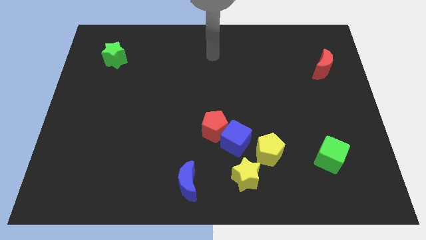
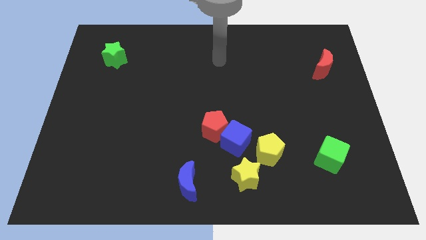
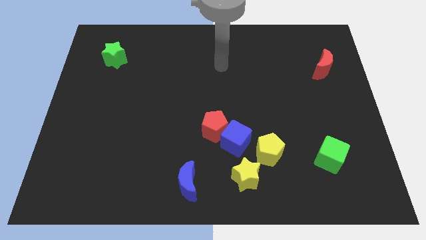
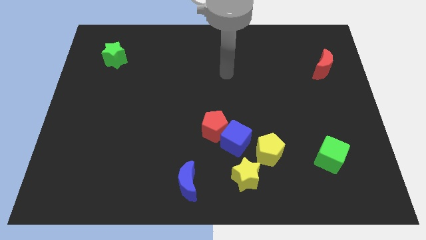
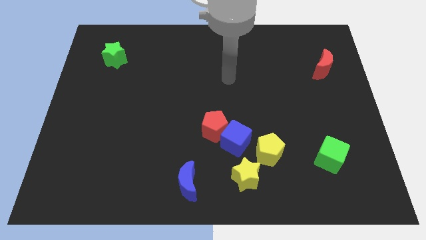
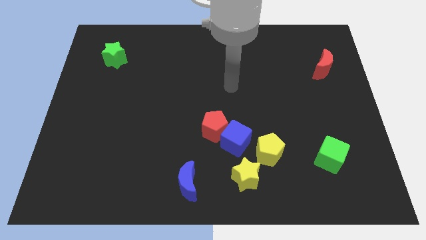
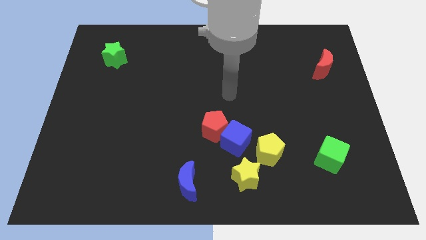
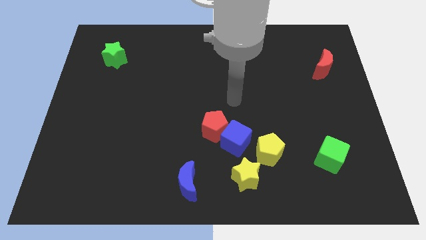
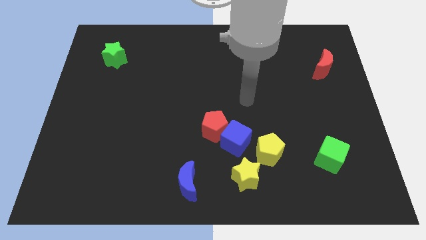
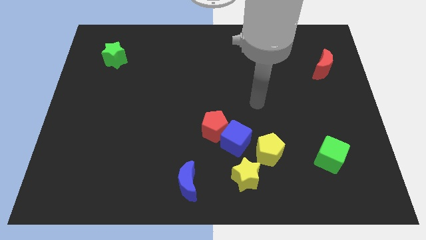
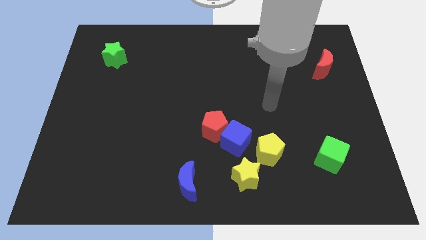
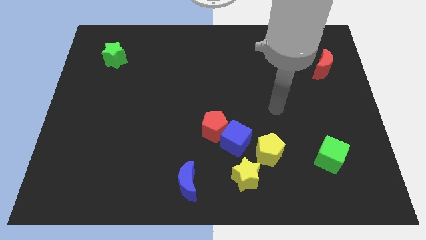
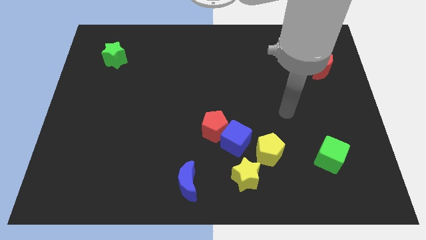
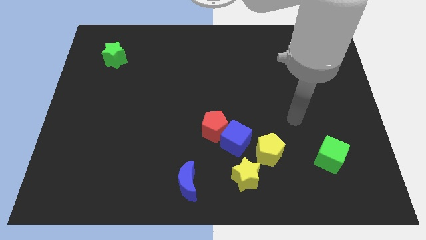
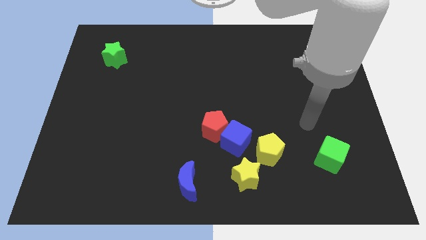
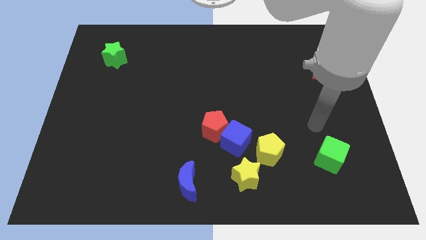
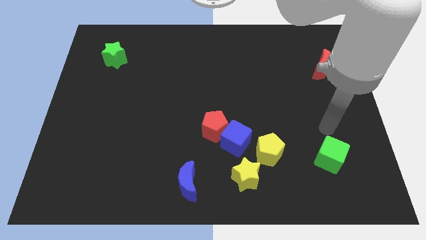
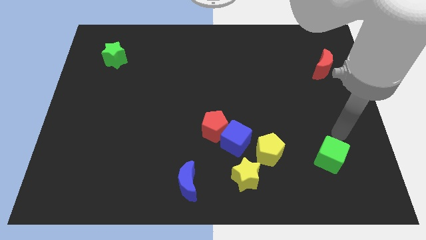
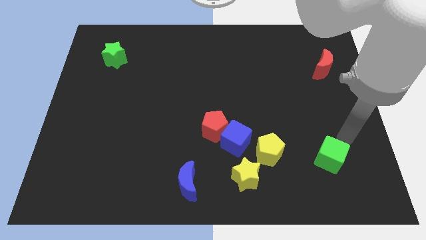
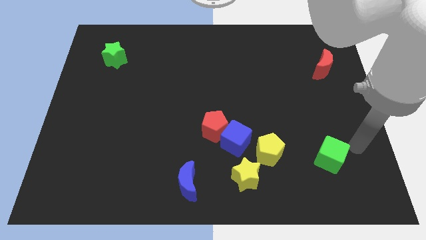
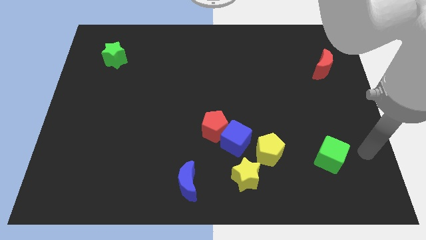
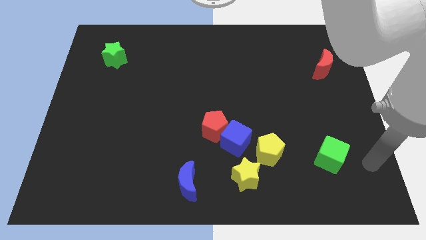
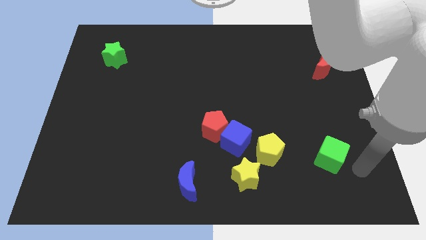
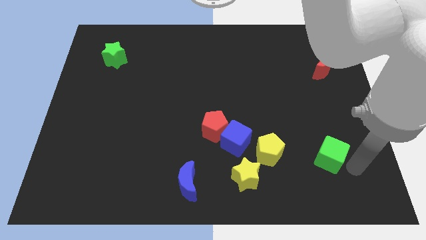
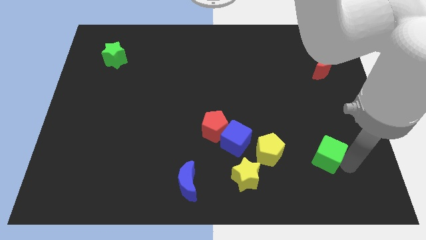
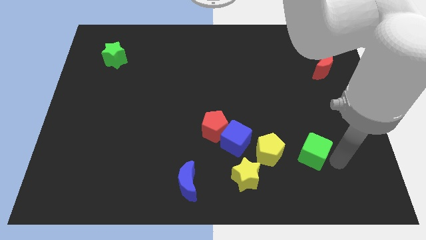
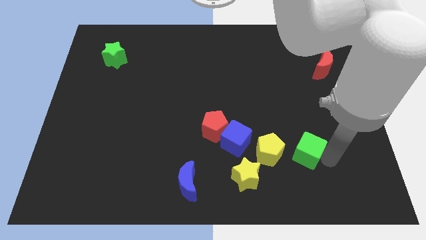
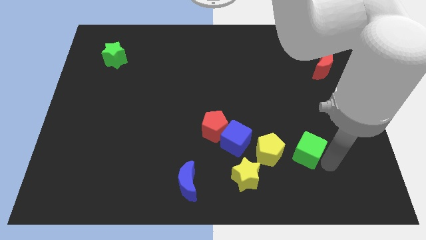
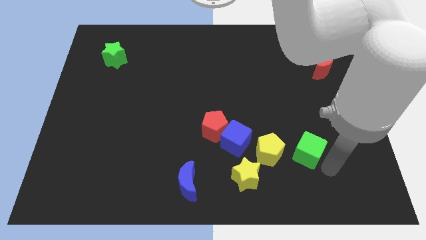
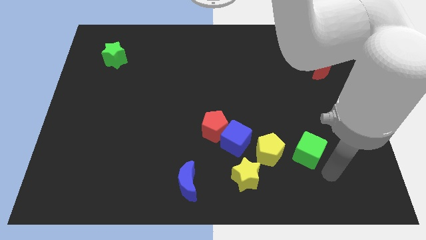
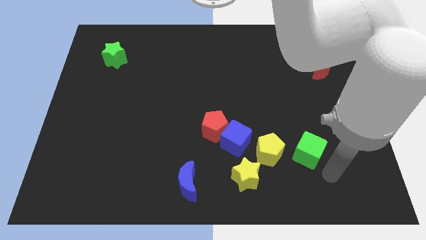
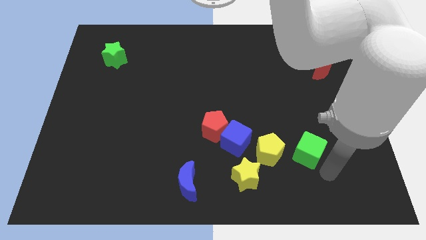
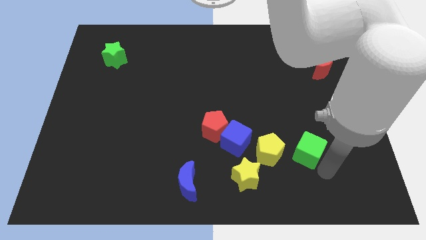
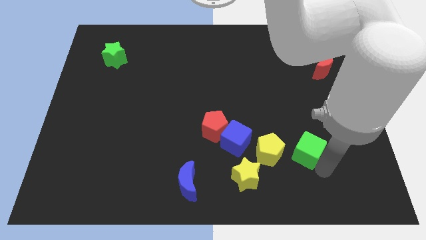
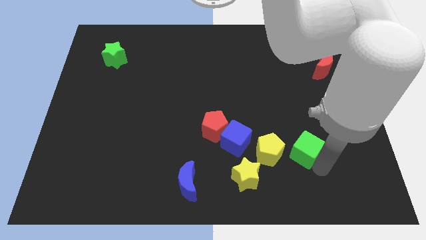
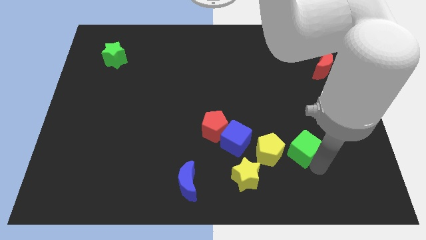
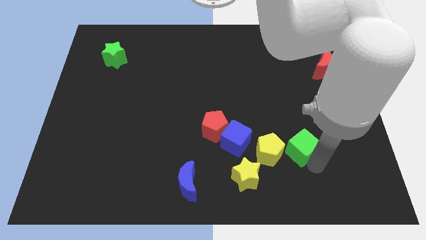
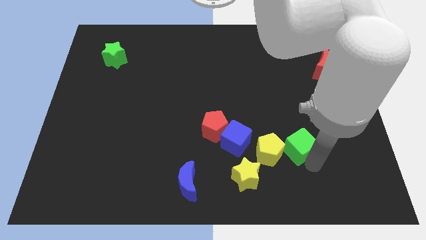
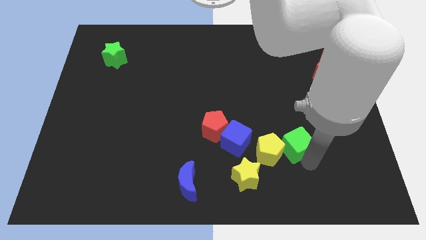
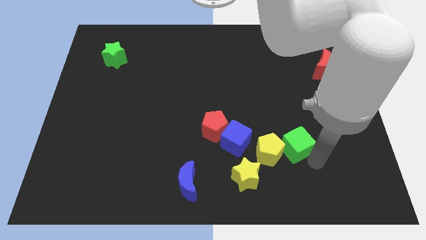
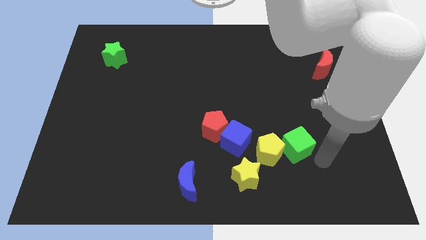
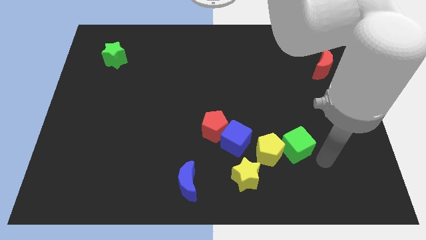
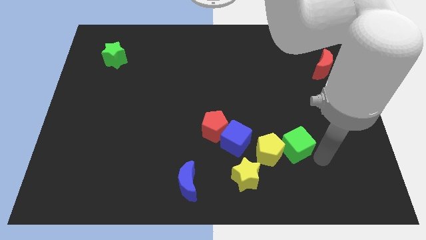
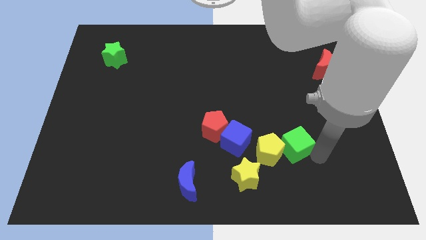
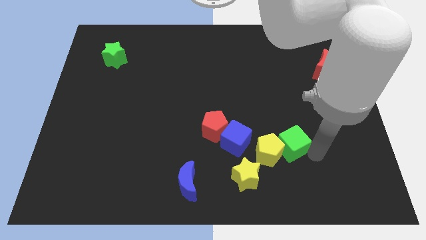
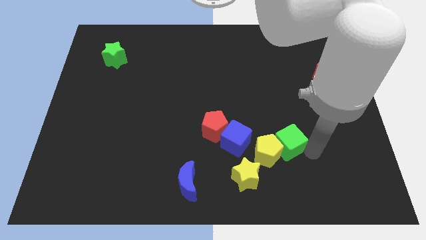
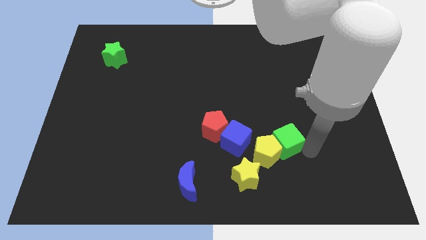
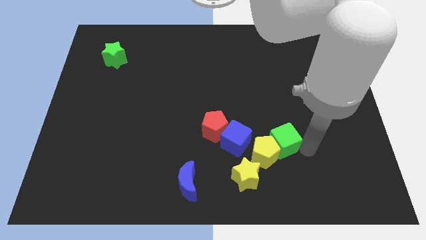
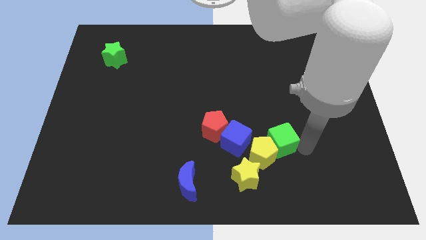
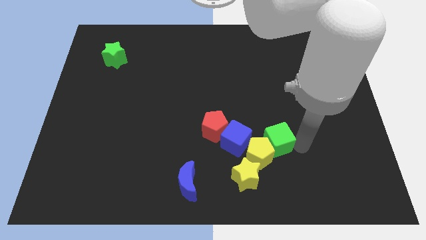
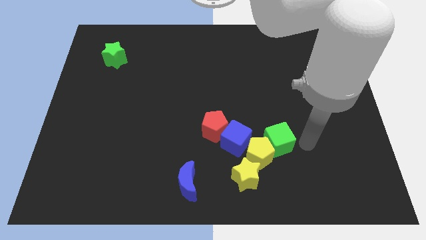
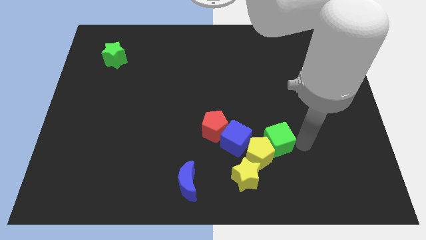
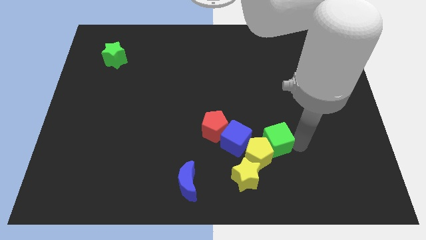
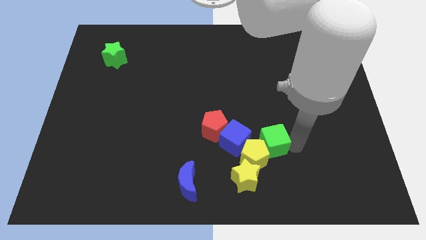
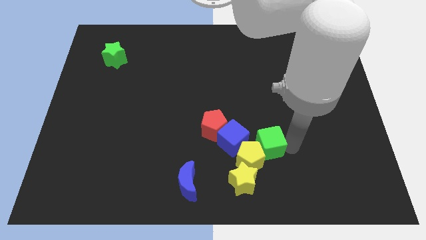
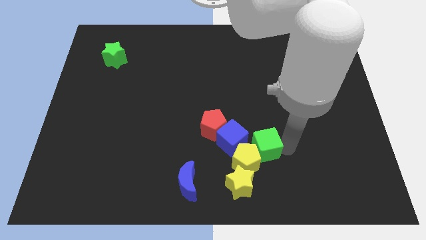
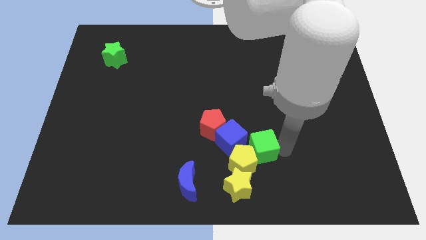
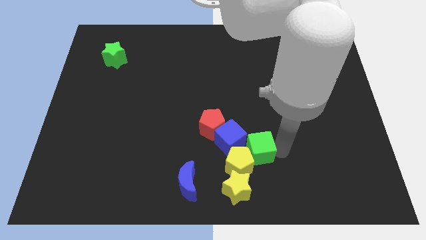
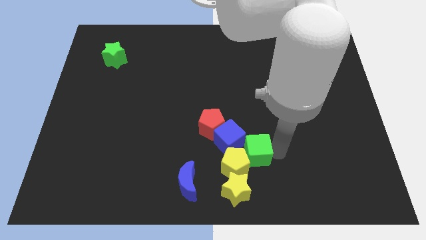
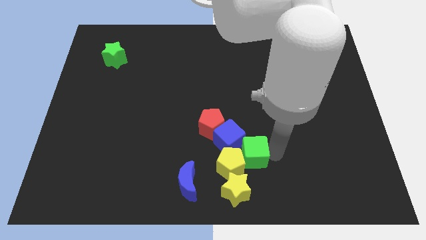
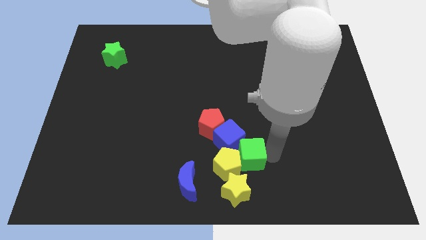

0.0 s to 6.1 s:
push the green cube towards the blue cube

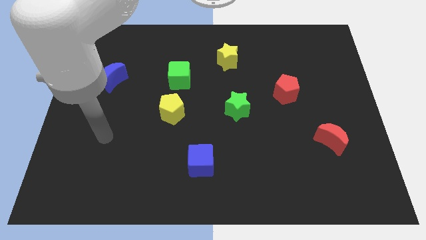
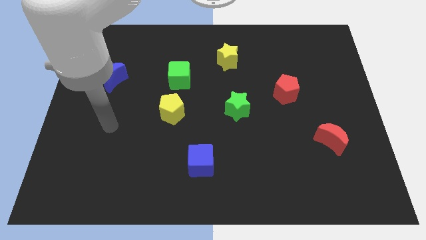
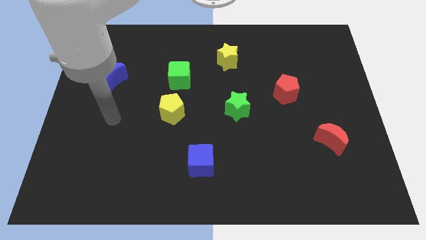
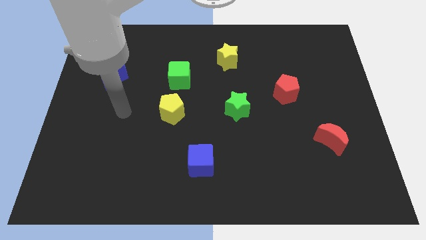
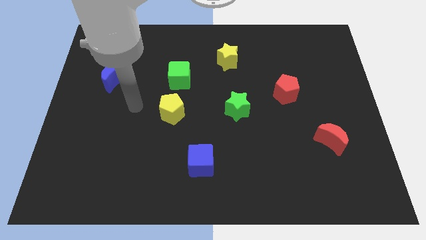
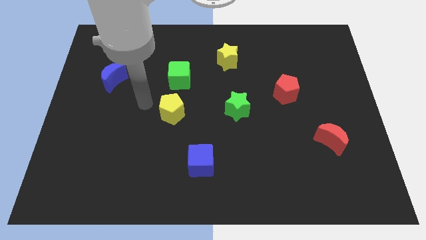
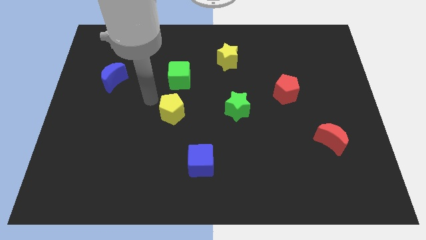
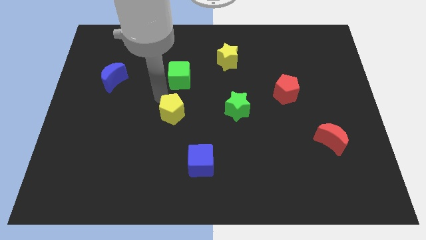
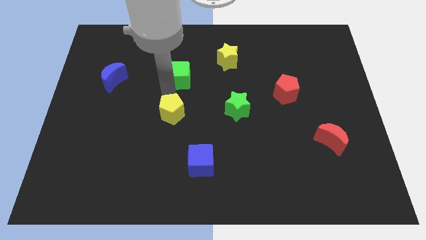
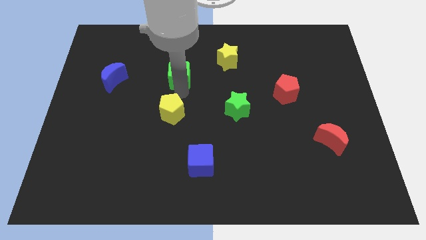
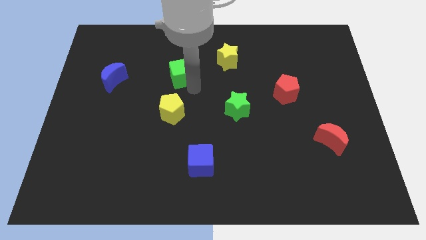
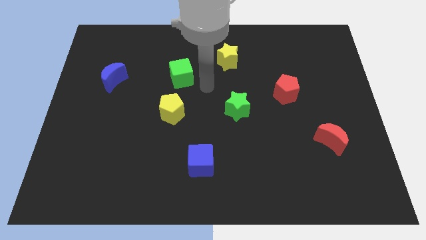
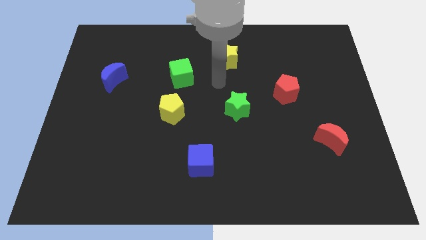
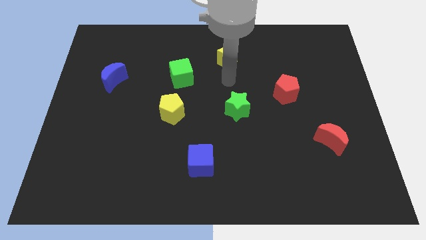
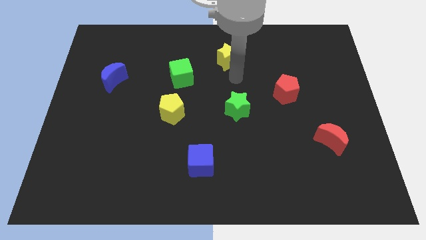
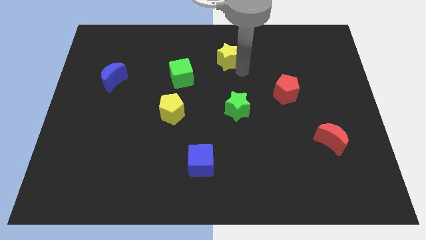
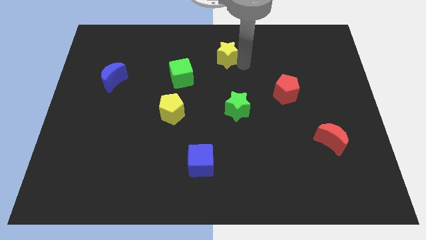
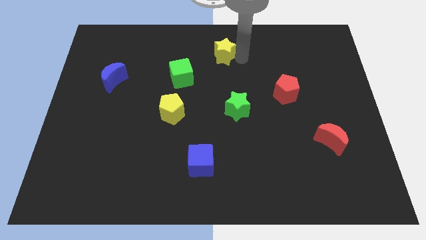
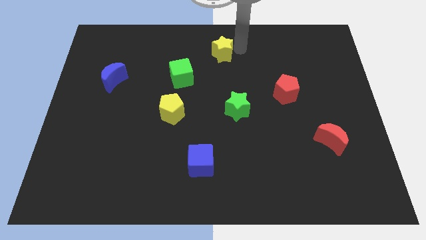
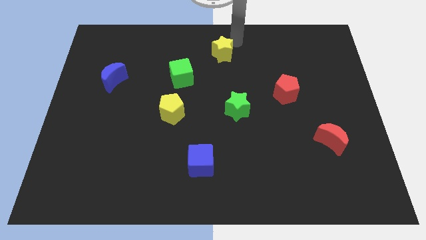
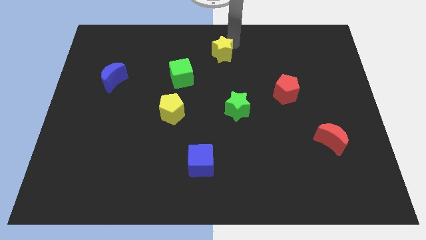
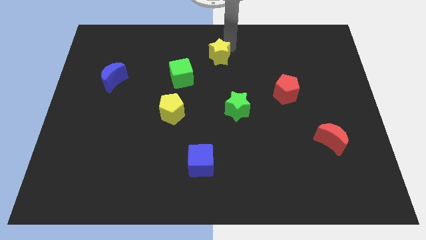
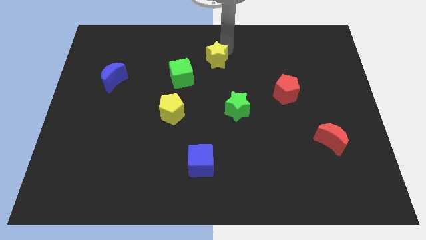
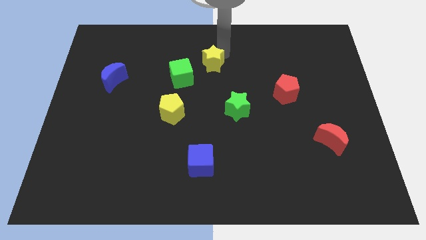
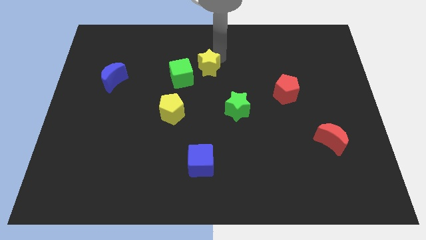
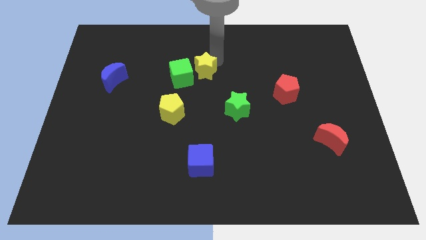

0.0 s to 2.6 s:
put the yellow star towards the green cube
